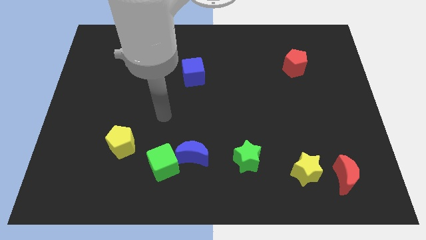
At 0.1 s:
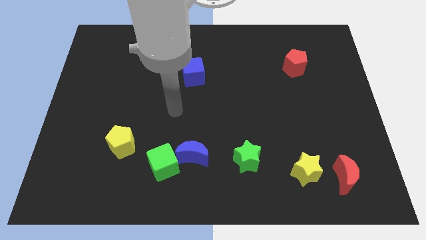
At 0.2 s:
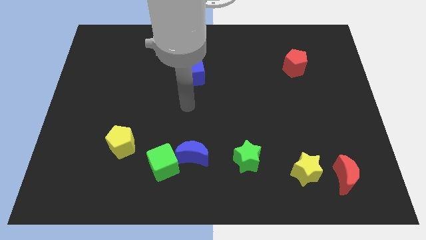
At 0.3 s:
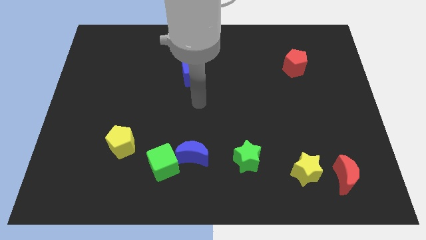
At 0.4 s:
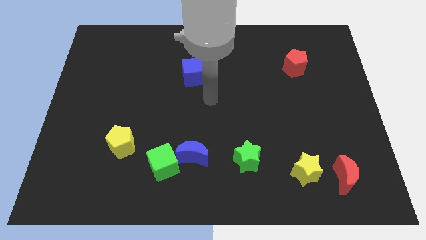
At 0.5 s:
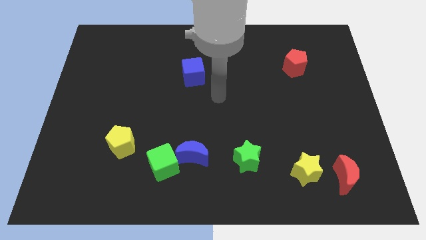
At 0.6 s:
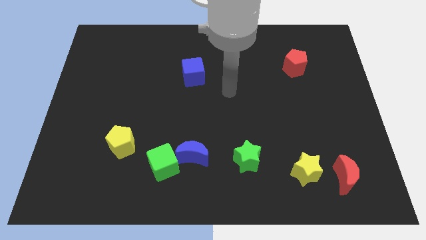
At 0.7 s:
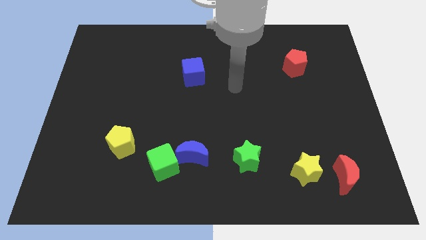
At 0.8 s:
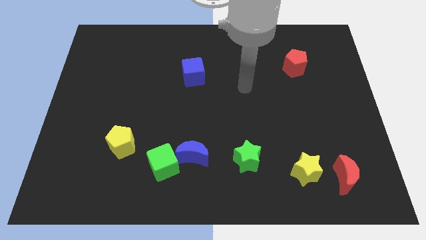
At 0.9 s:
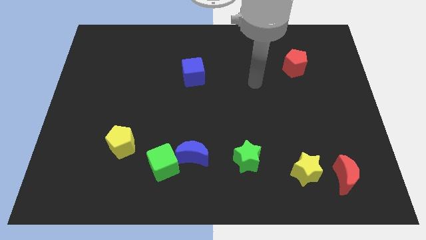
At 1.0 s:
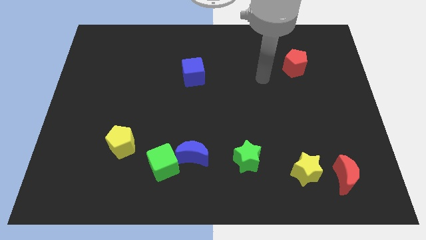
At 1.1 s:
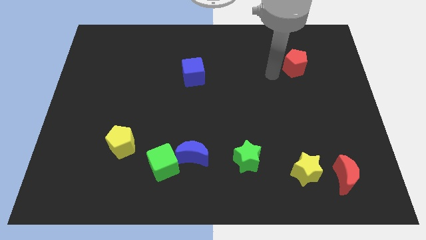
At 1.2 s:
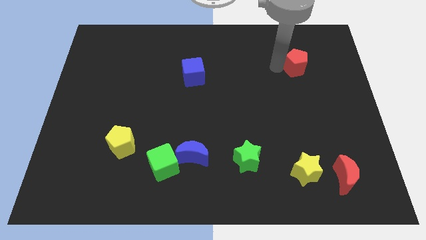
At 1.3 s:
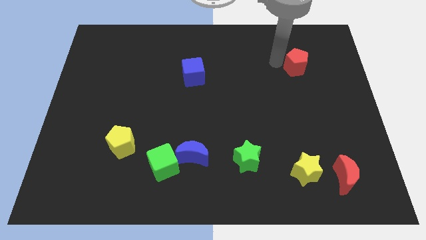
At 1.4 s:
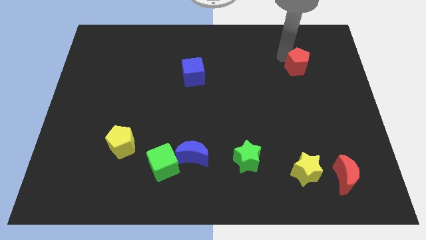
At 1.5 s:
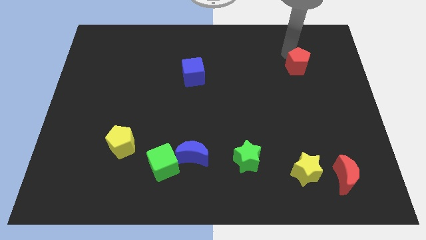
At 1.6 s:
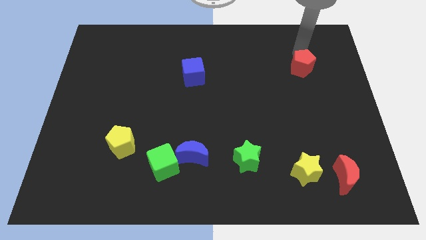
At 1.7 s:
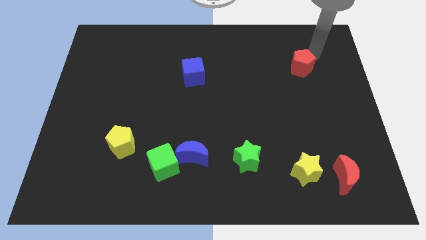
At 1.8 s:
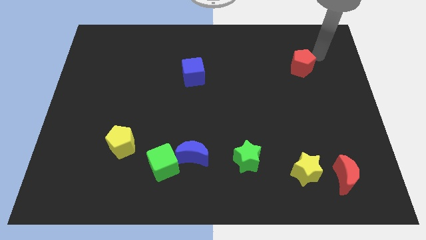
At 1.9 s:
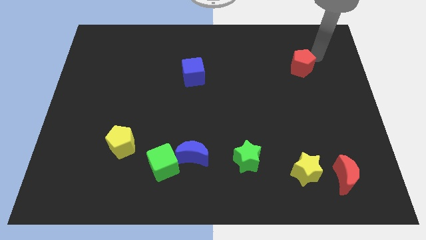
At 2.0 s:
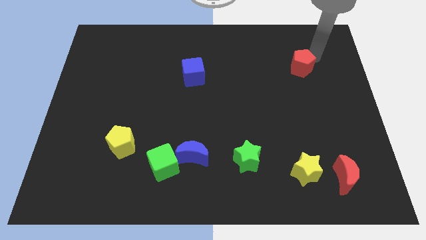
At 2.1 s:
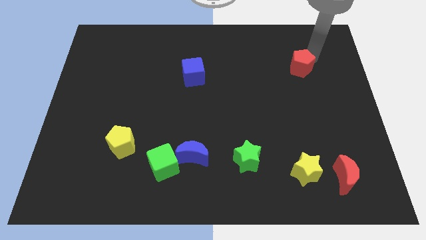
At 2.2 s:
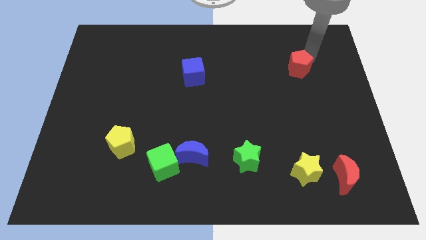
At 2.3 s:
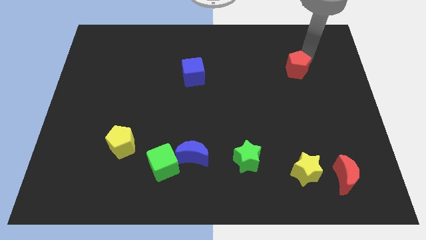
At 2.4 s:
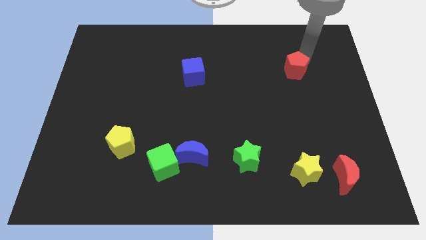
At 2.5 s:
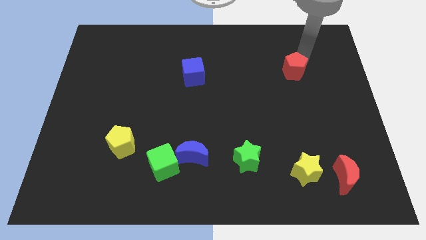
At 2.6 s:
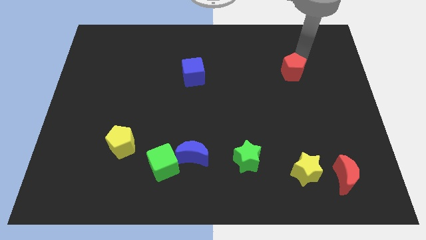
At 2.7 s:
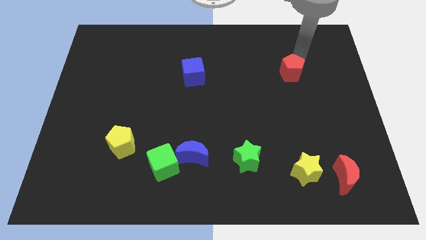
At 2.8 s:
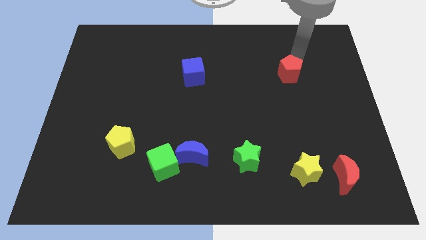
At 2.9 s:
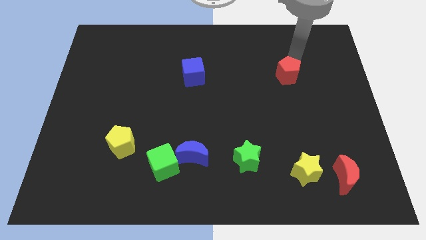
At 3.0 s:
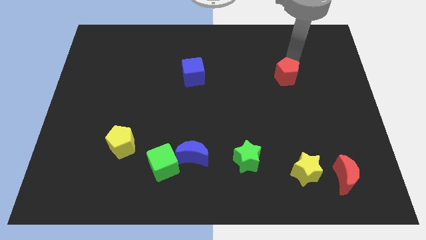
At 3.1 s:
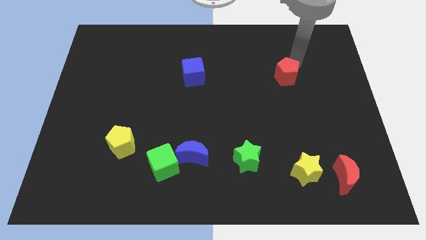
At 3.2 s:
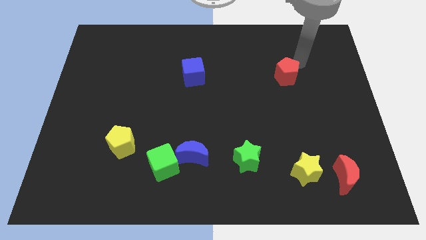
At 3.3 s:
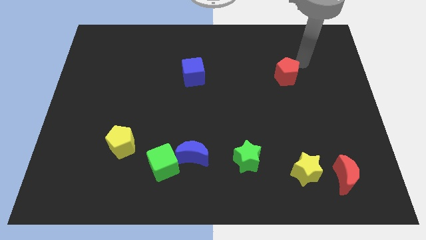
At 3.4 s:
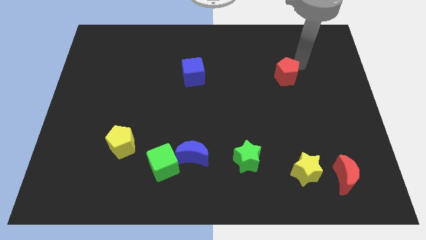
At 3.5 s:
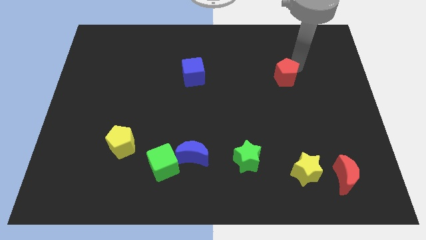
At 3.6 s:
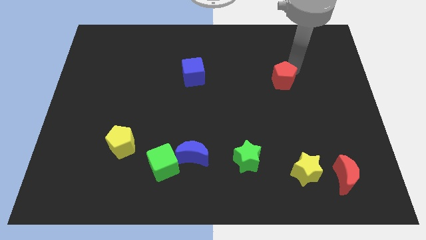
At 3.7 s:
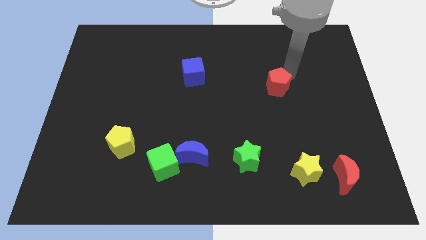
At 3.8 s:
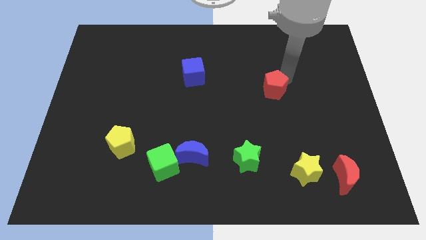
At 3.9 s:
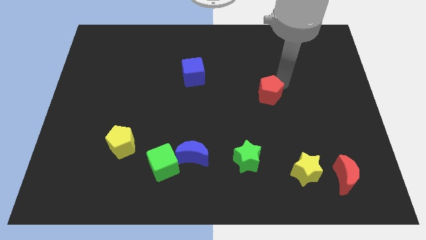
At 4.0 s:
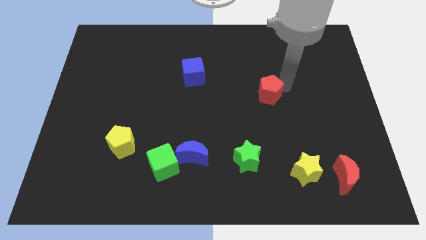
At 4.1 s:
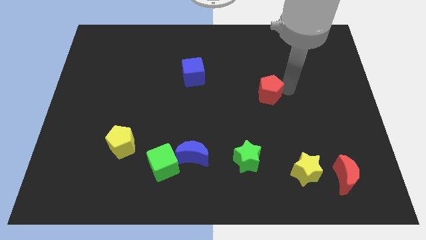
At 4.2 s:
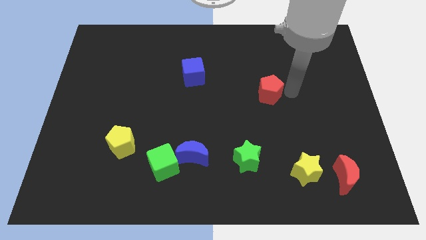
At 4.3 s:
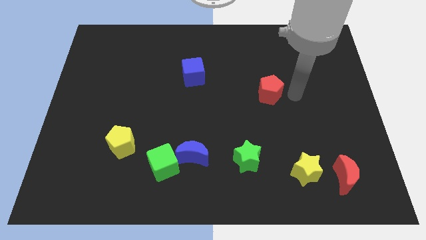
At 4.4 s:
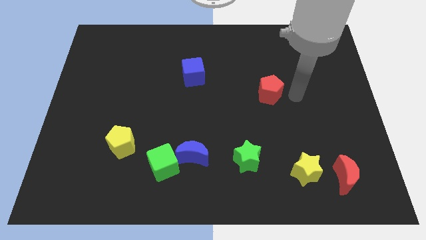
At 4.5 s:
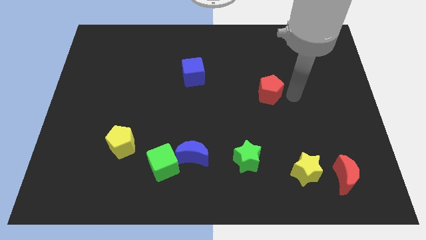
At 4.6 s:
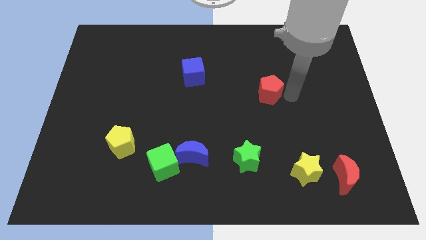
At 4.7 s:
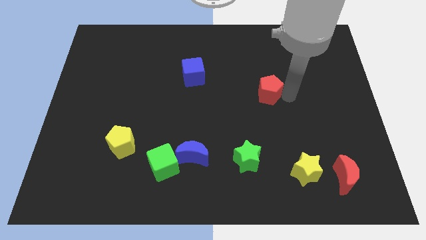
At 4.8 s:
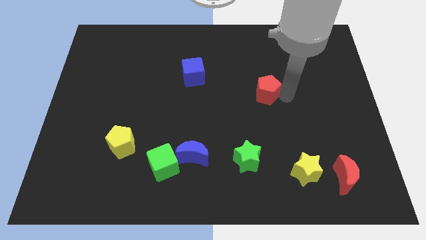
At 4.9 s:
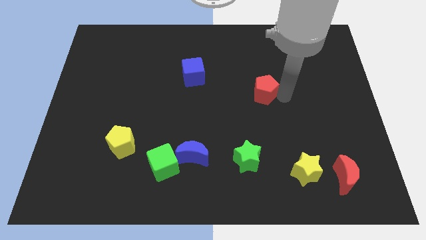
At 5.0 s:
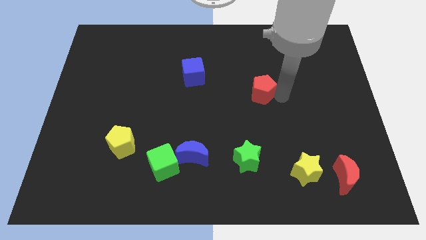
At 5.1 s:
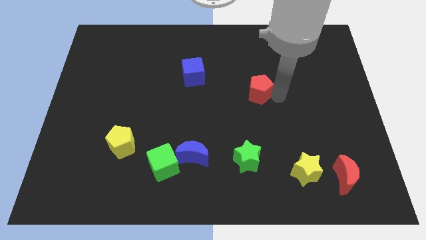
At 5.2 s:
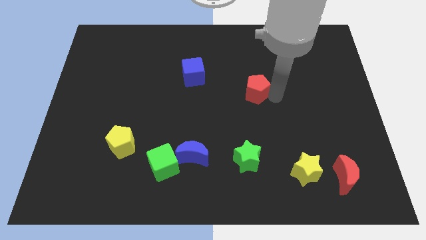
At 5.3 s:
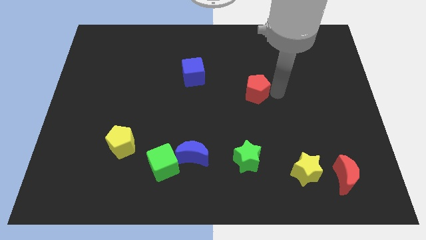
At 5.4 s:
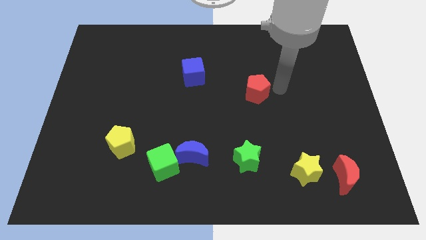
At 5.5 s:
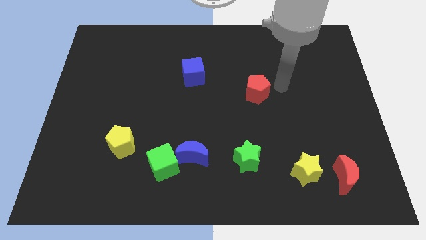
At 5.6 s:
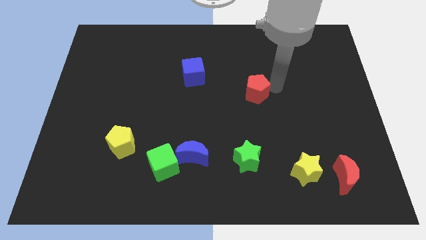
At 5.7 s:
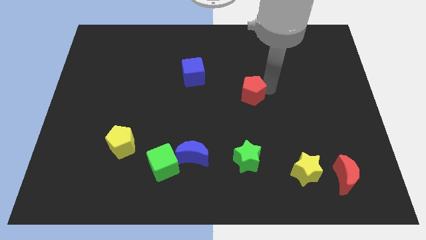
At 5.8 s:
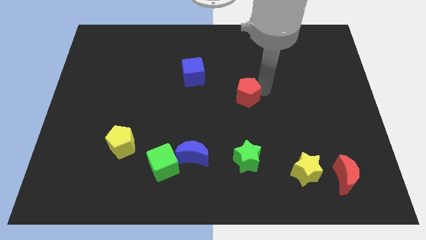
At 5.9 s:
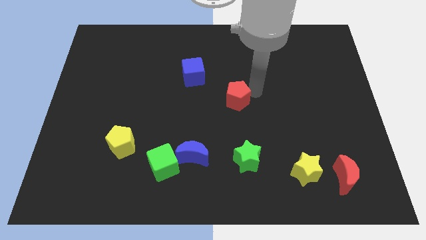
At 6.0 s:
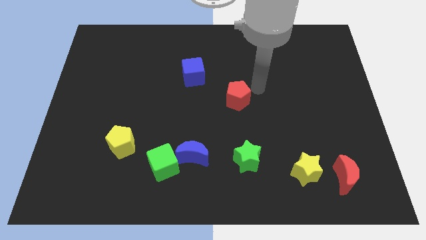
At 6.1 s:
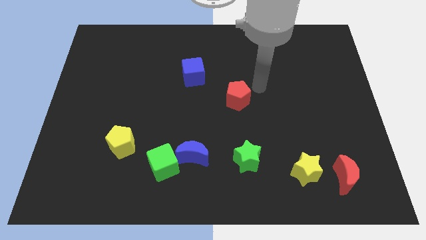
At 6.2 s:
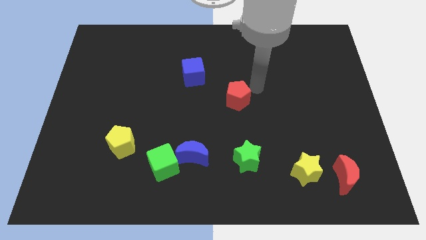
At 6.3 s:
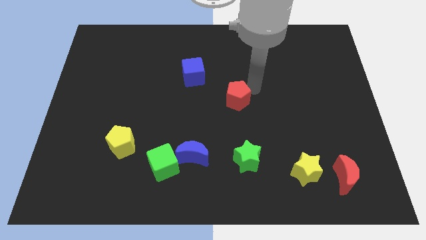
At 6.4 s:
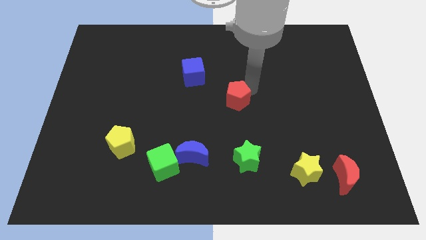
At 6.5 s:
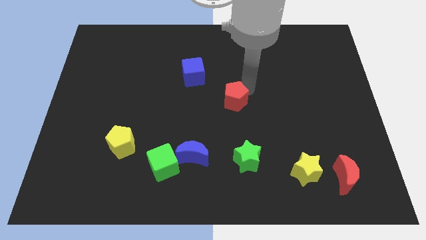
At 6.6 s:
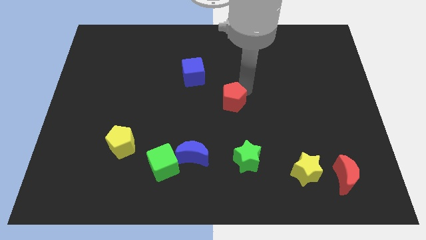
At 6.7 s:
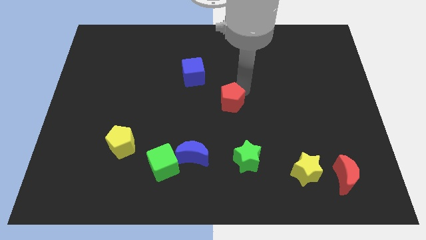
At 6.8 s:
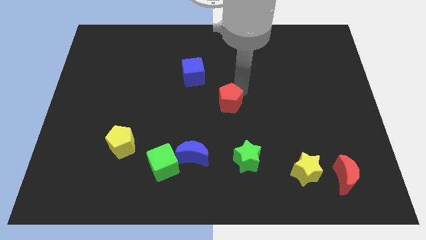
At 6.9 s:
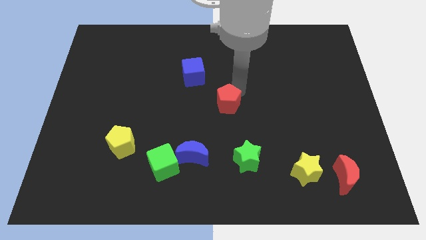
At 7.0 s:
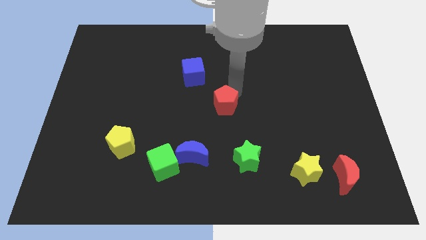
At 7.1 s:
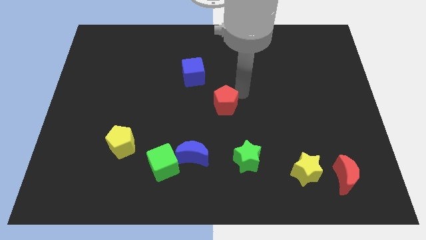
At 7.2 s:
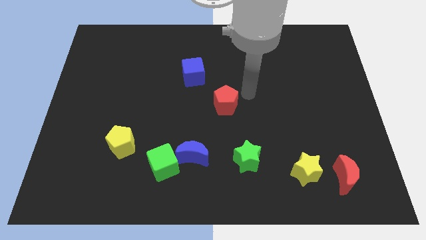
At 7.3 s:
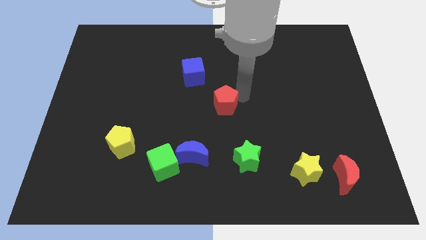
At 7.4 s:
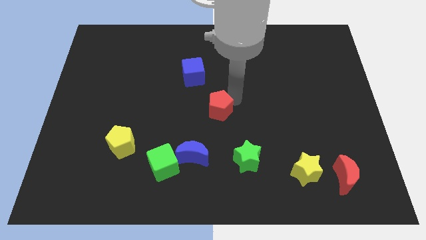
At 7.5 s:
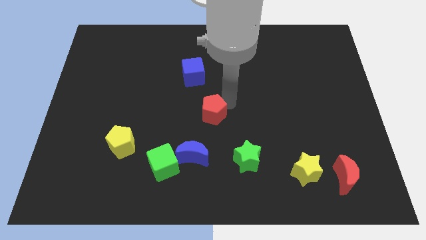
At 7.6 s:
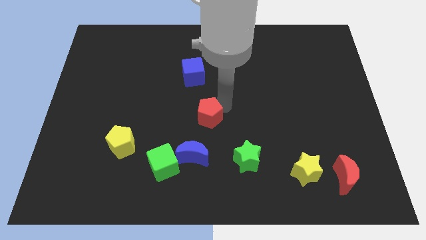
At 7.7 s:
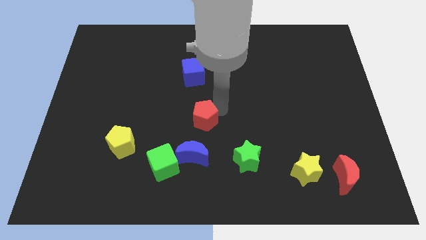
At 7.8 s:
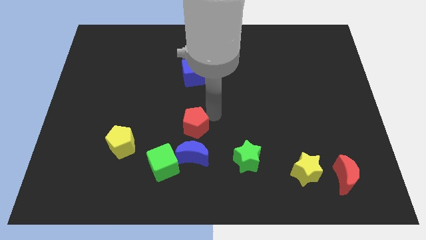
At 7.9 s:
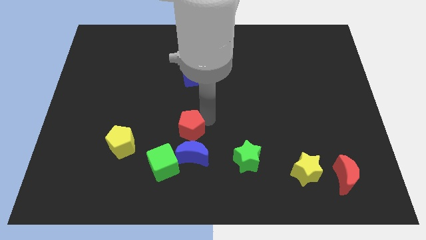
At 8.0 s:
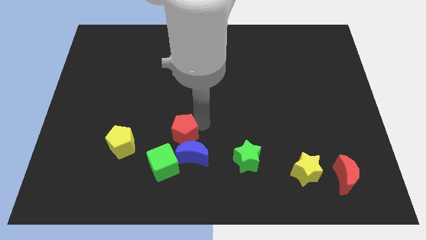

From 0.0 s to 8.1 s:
slide the red pentagon above the green cube
